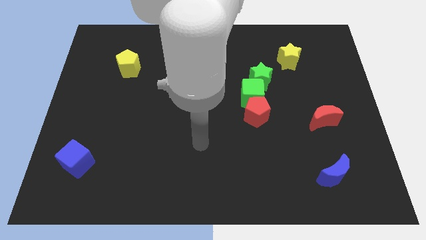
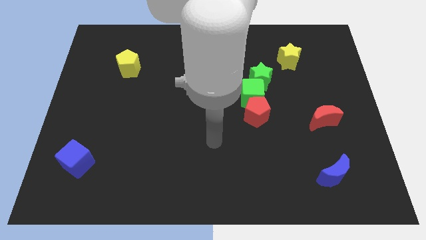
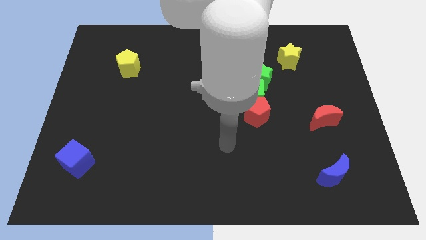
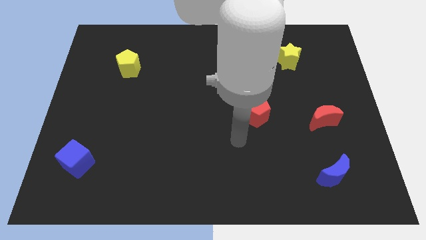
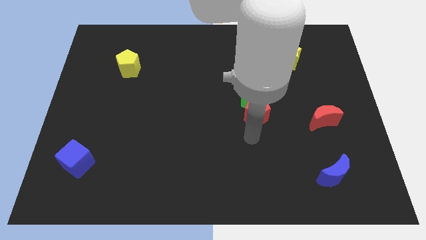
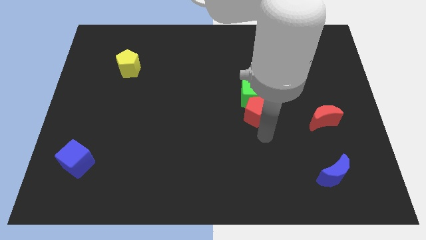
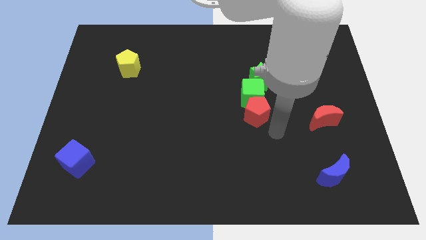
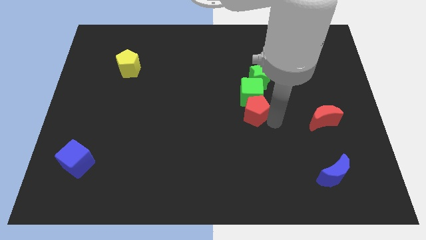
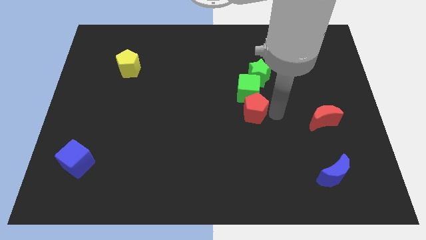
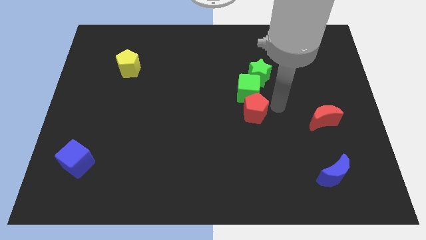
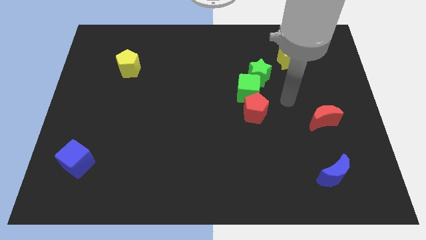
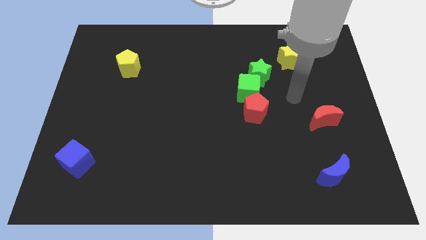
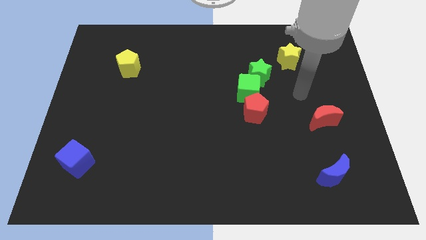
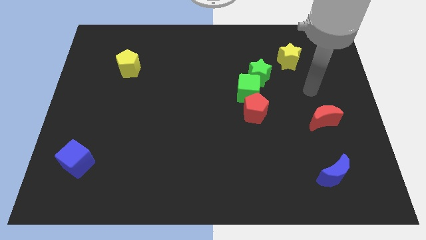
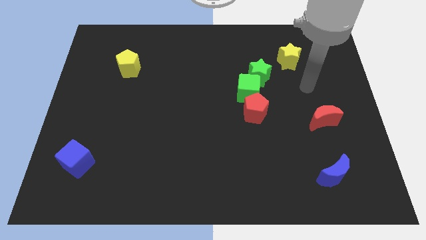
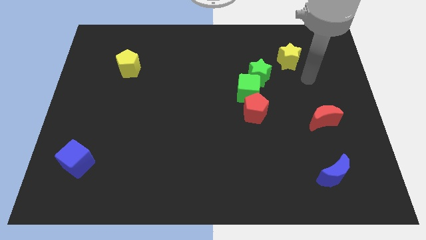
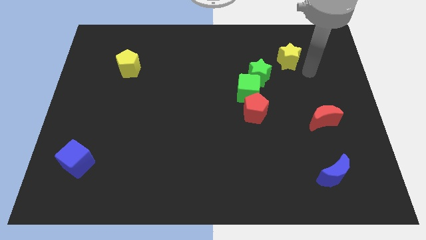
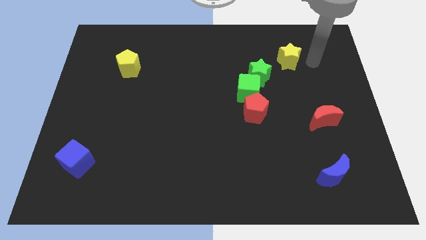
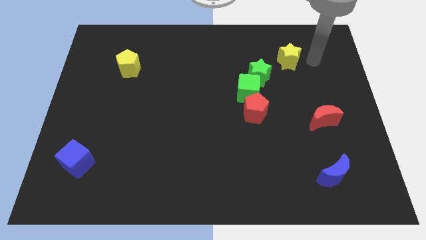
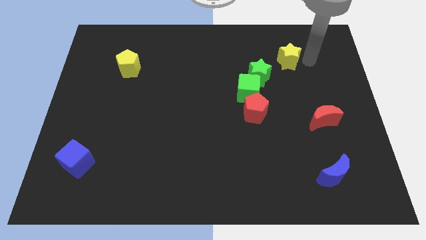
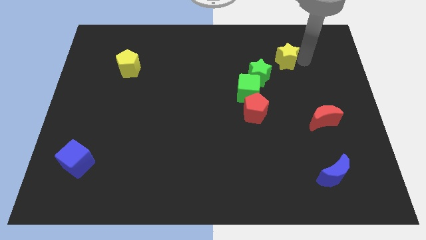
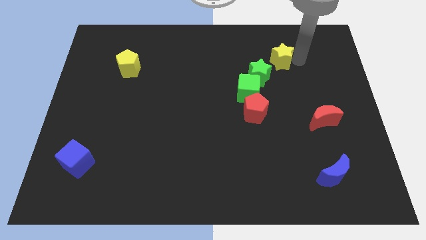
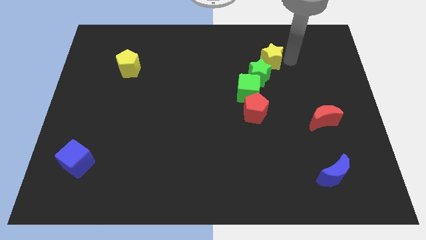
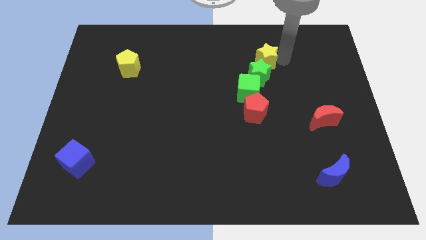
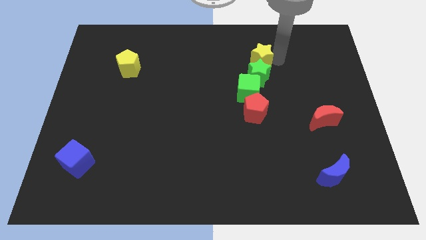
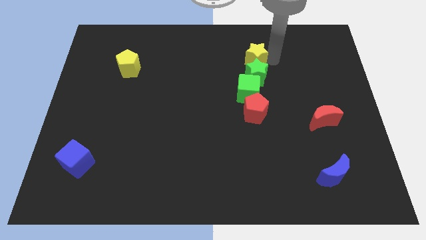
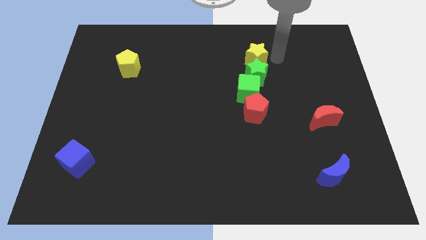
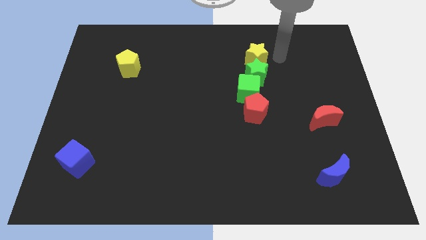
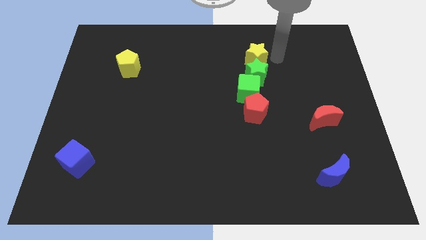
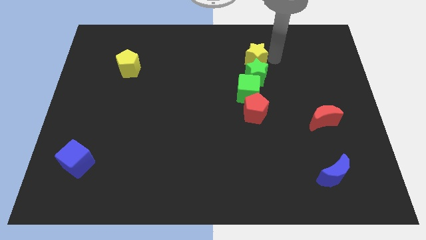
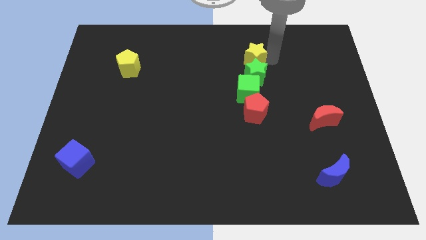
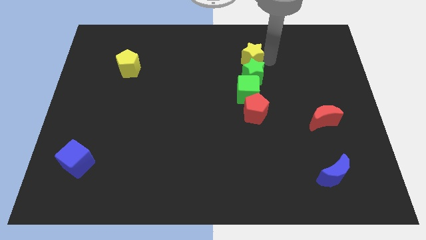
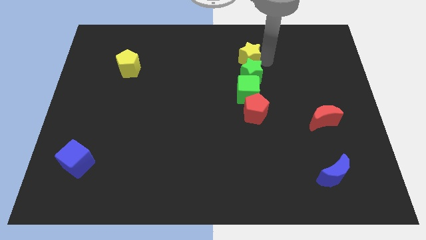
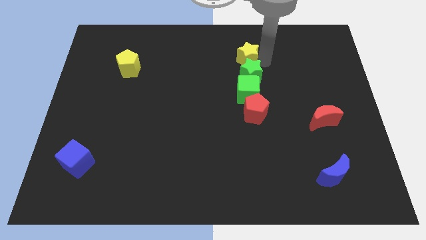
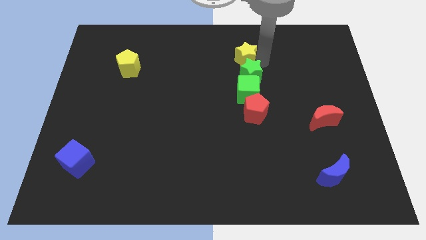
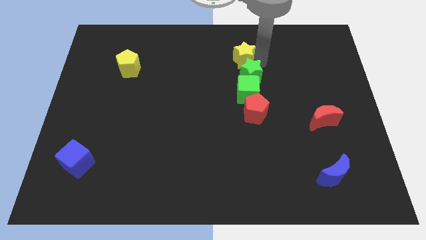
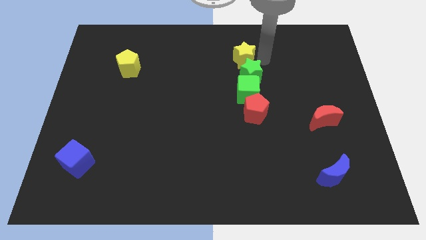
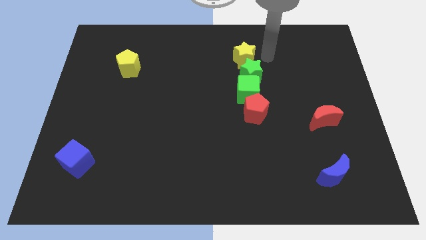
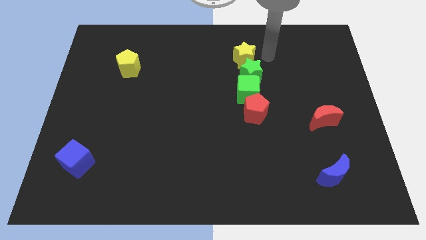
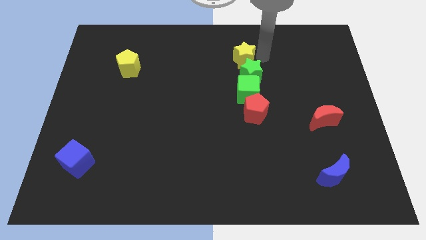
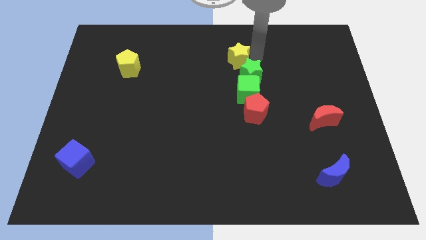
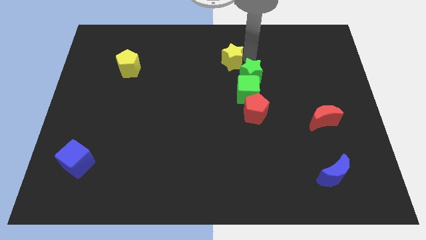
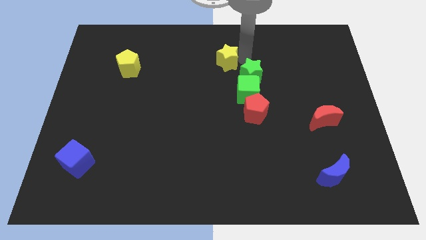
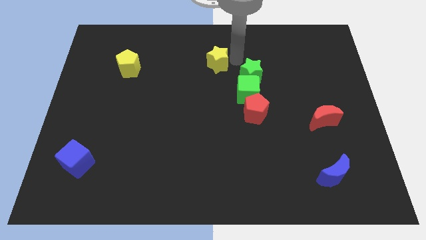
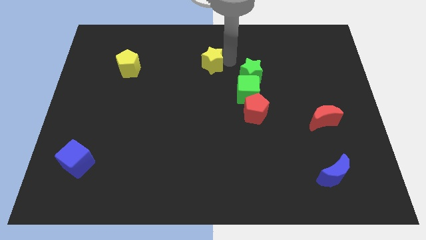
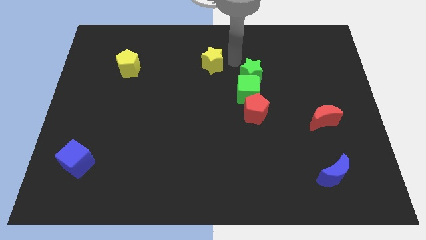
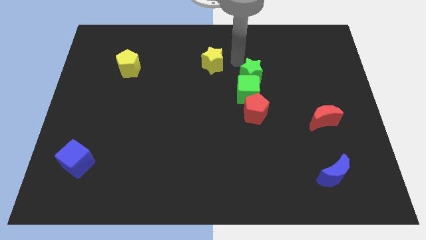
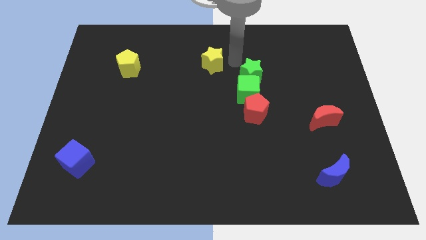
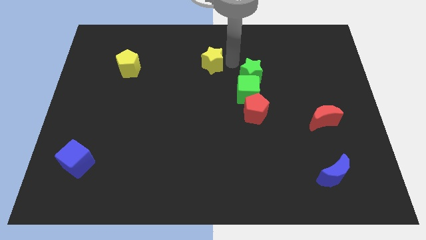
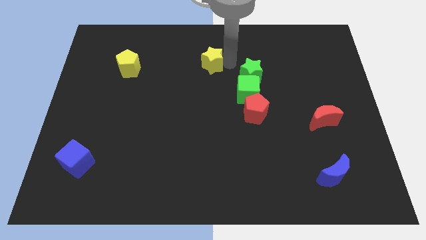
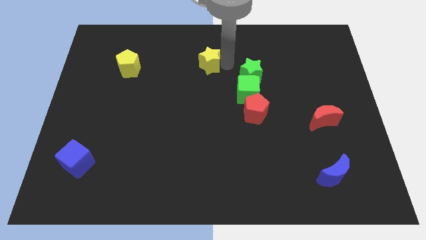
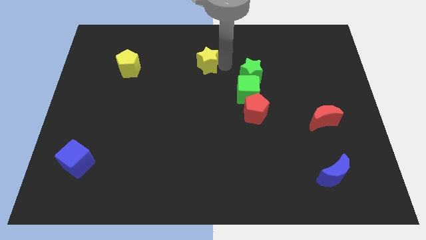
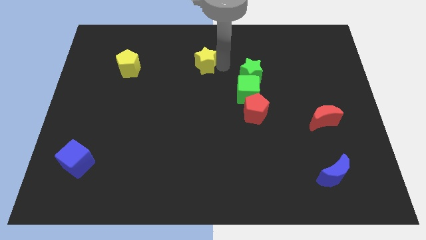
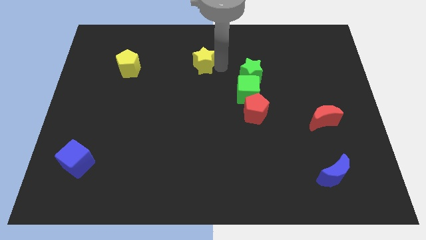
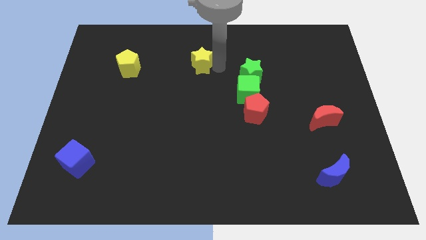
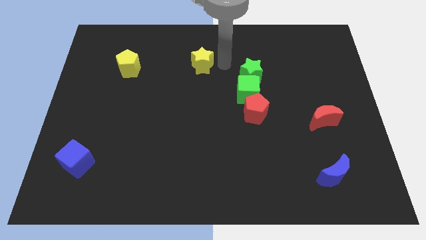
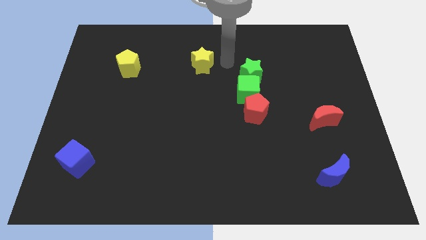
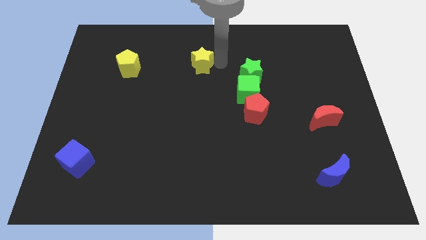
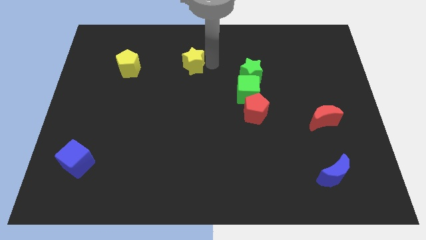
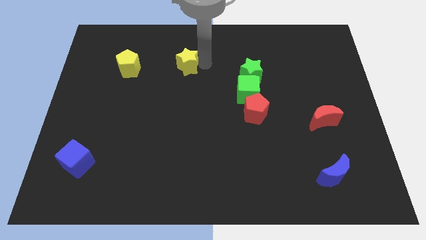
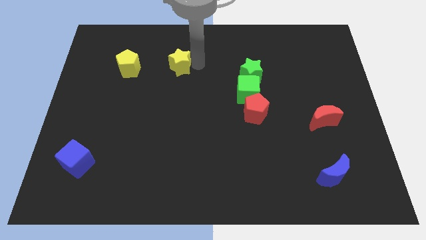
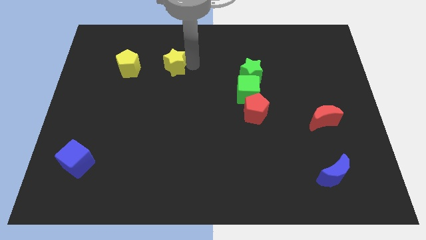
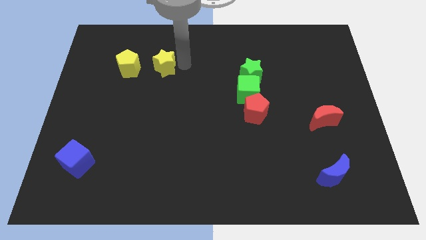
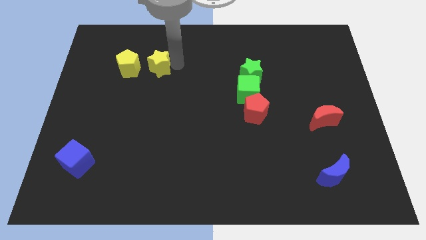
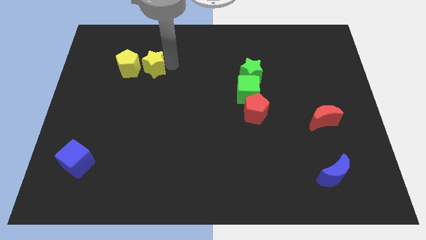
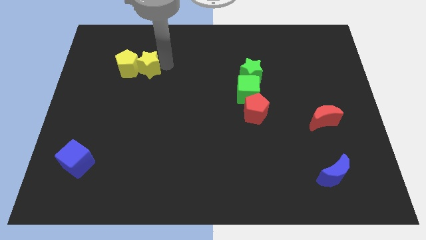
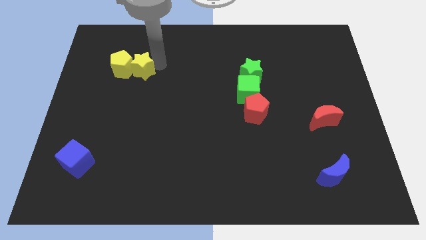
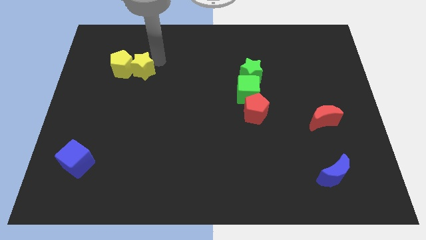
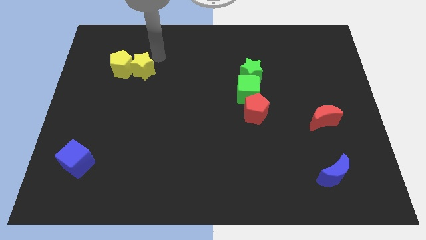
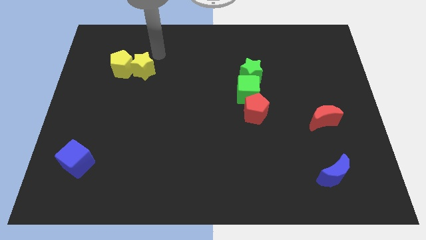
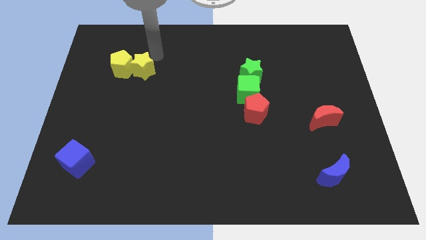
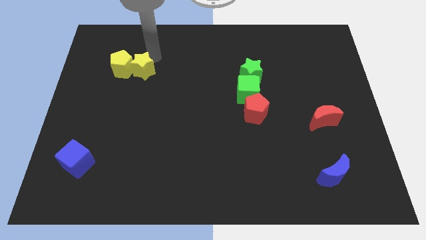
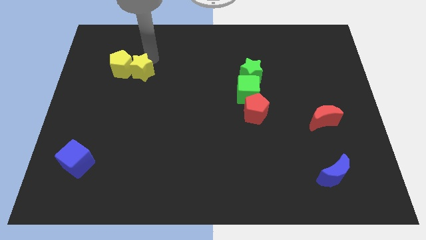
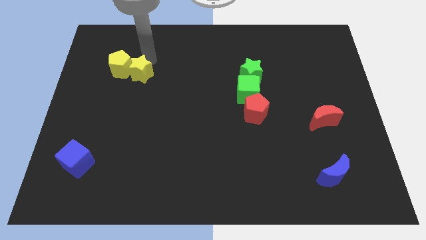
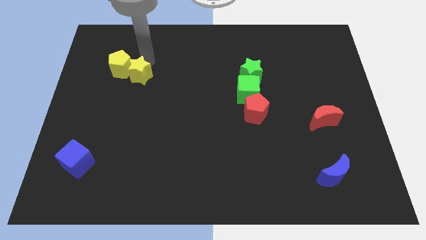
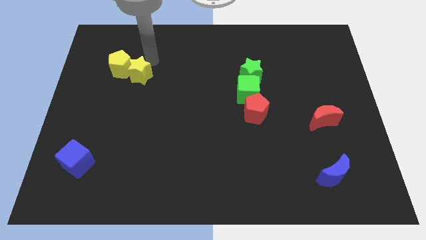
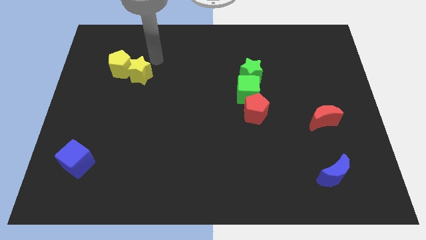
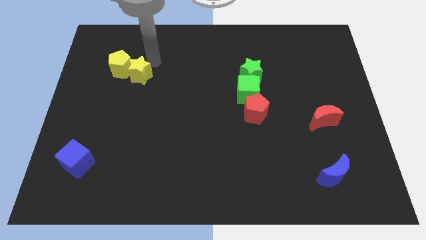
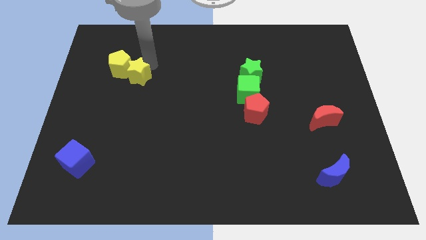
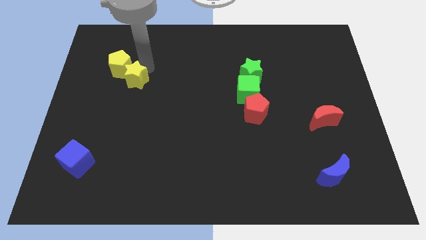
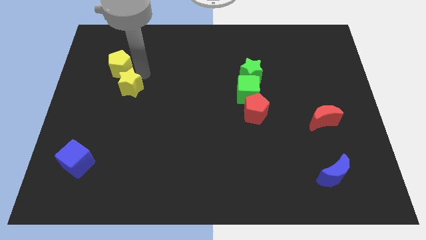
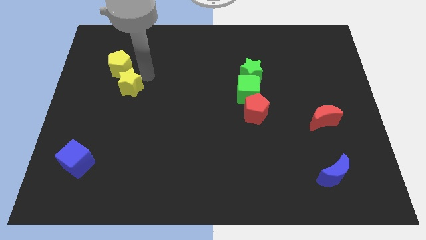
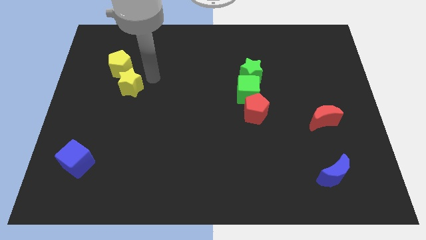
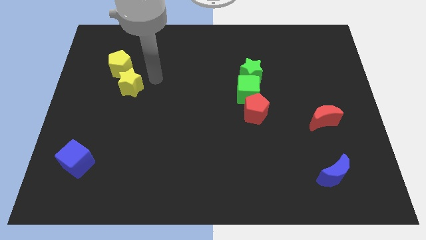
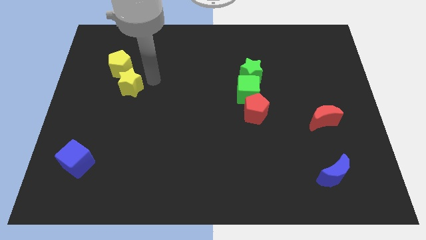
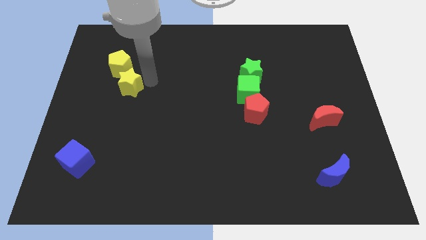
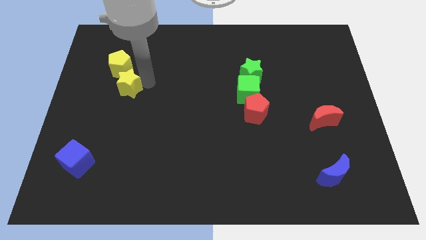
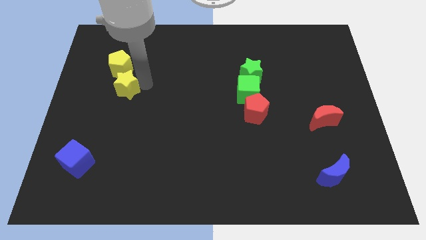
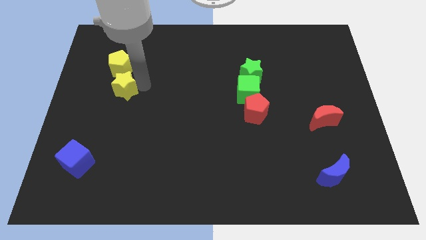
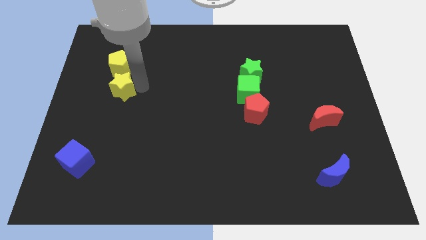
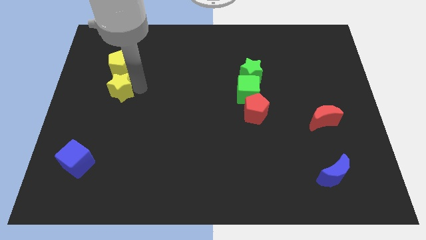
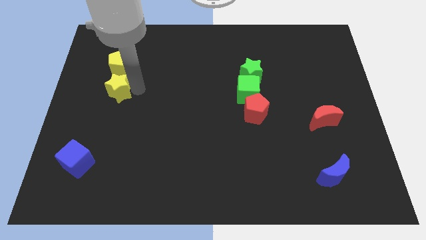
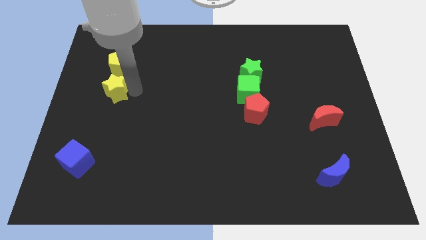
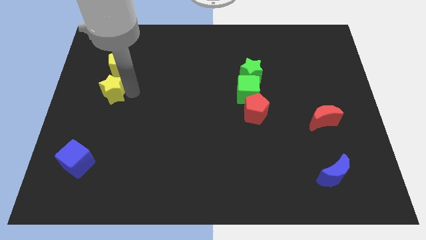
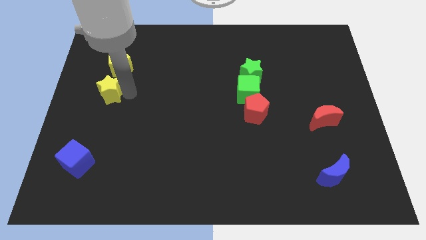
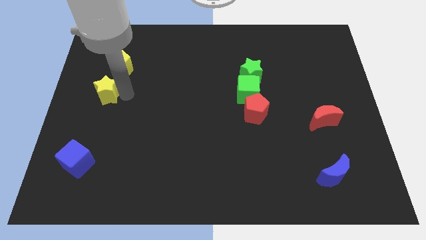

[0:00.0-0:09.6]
push the yellow star to the center left
